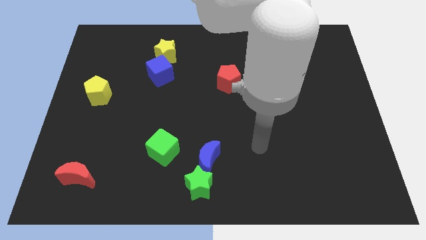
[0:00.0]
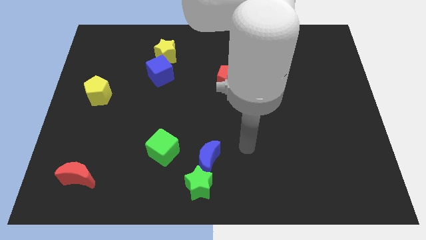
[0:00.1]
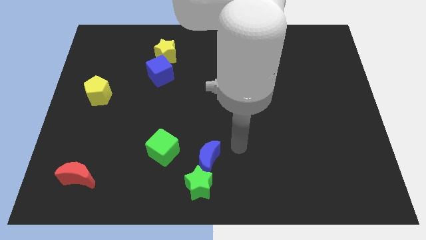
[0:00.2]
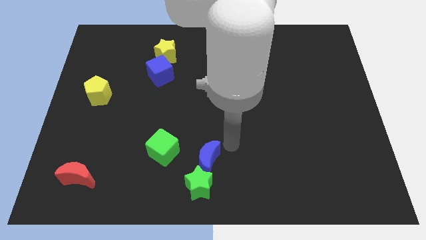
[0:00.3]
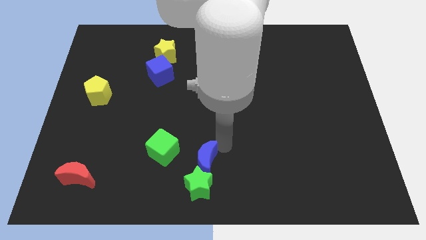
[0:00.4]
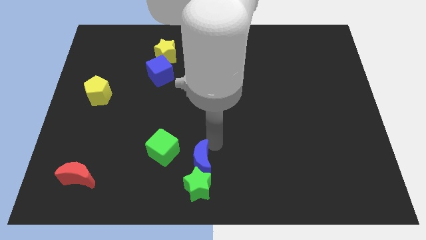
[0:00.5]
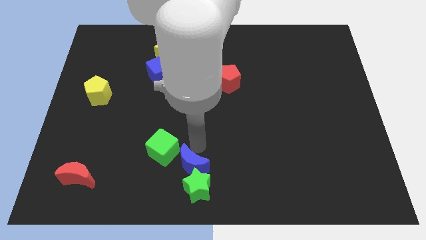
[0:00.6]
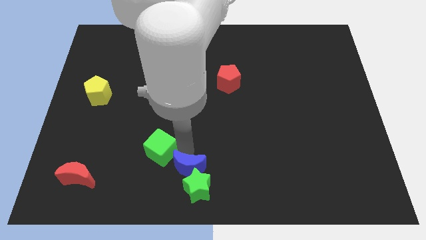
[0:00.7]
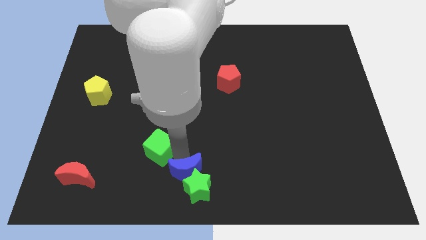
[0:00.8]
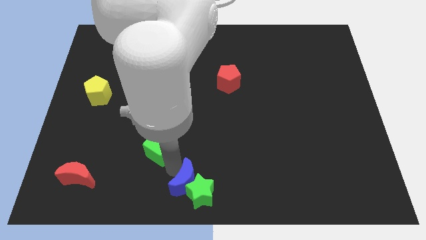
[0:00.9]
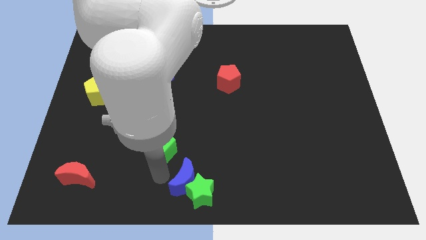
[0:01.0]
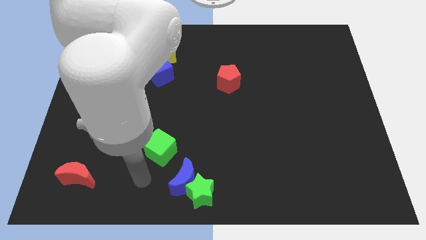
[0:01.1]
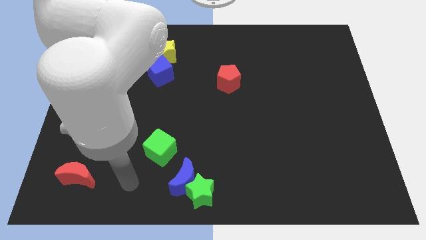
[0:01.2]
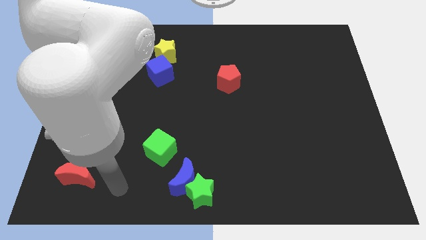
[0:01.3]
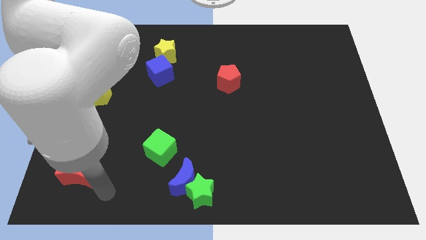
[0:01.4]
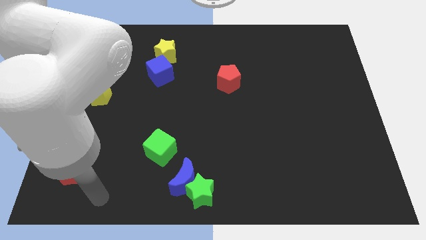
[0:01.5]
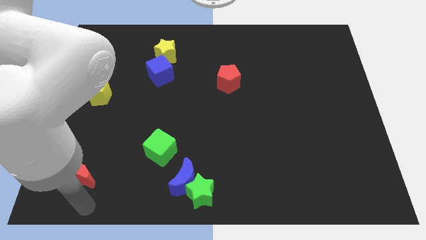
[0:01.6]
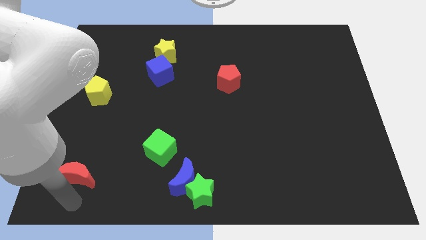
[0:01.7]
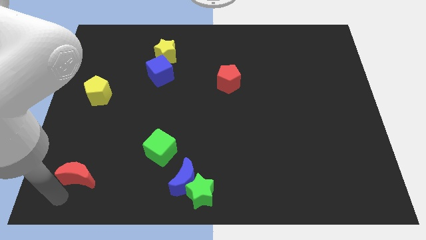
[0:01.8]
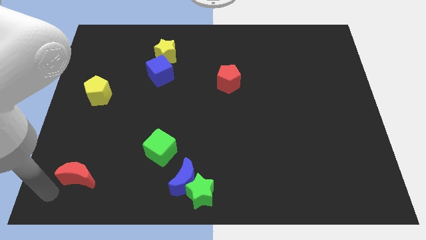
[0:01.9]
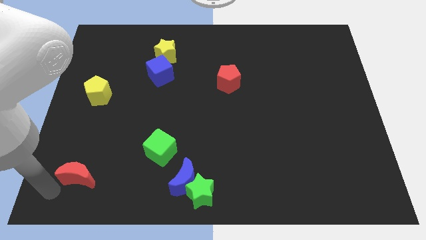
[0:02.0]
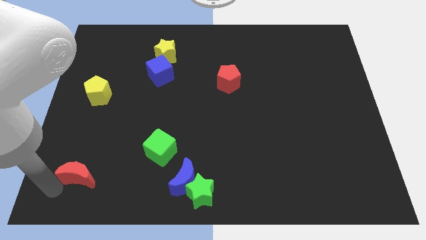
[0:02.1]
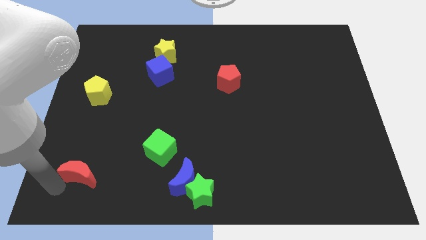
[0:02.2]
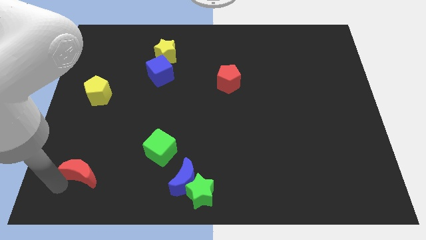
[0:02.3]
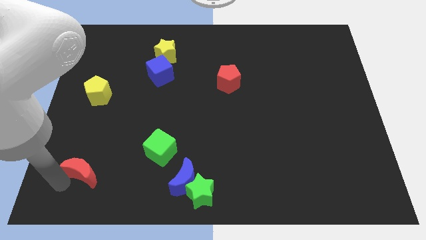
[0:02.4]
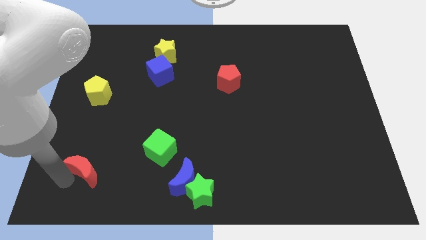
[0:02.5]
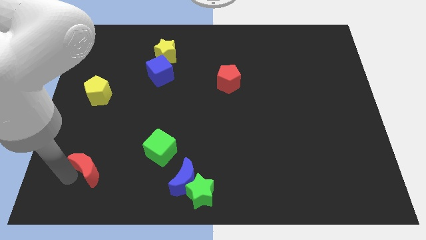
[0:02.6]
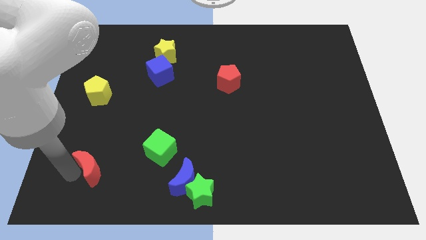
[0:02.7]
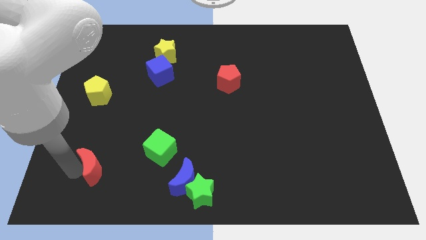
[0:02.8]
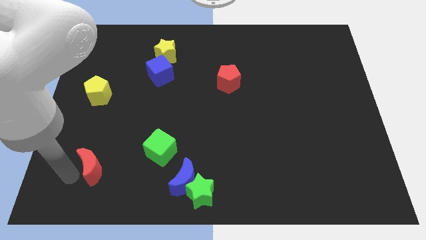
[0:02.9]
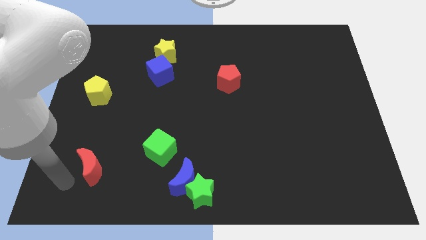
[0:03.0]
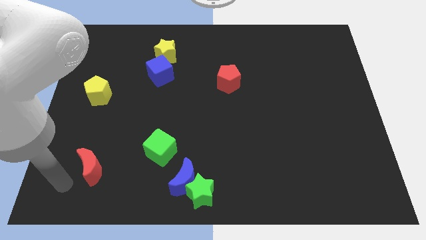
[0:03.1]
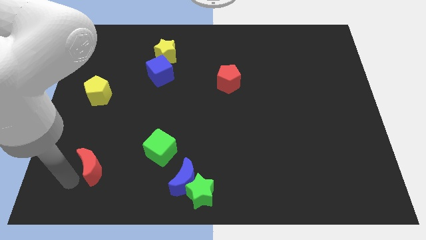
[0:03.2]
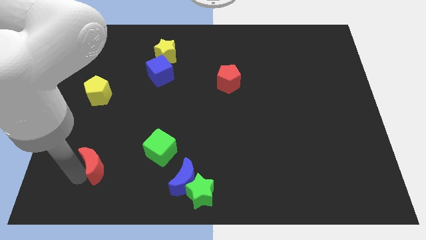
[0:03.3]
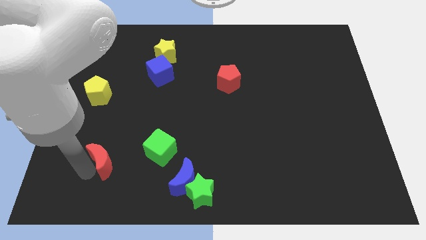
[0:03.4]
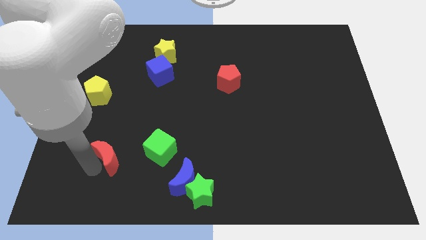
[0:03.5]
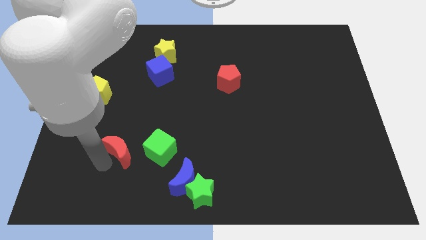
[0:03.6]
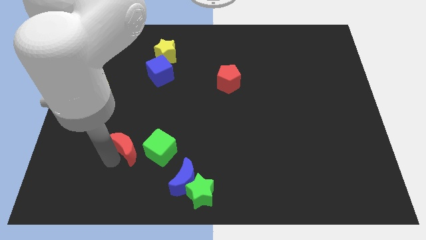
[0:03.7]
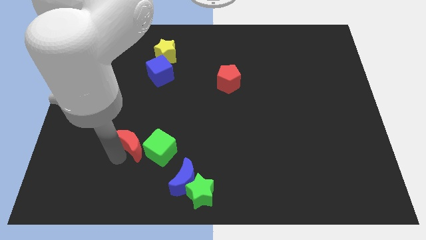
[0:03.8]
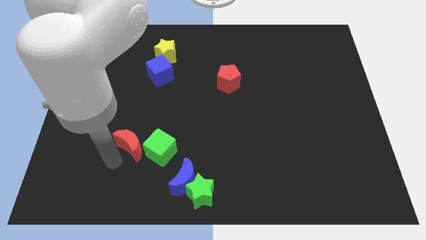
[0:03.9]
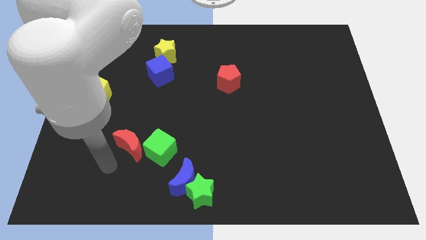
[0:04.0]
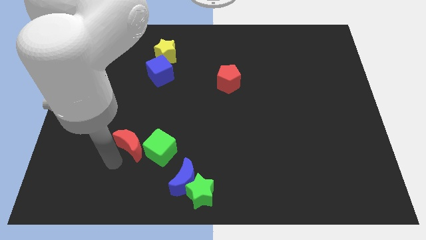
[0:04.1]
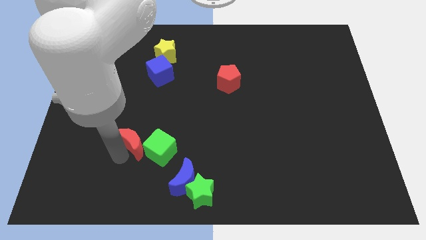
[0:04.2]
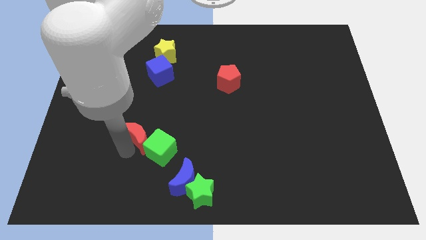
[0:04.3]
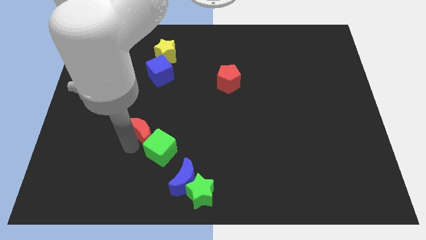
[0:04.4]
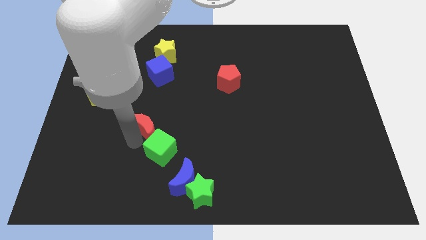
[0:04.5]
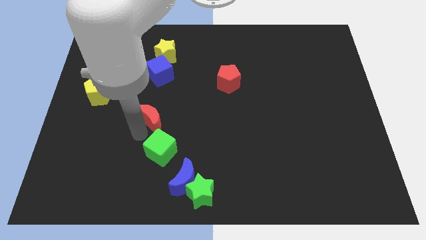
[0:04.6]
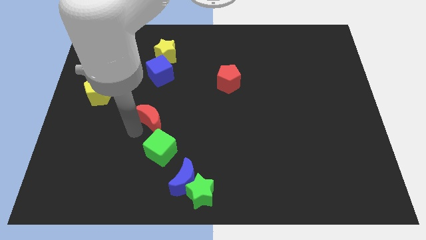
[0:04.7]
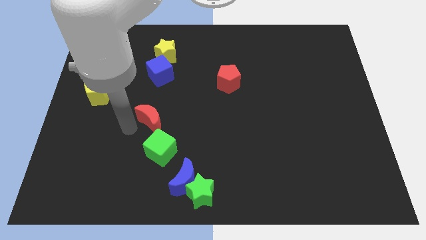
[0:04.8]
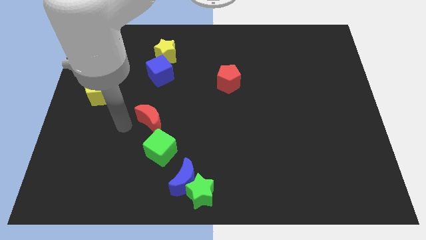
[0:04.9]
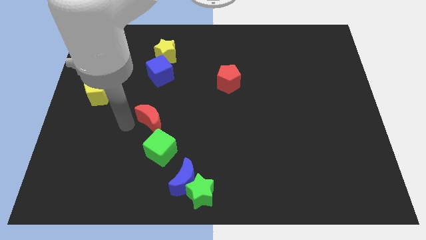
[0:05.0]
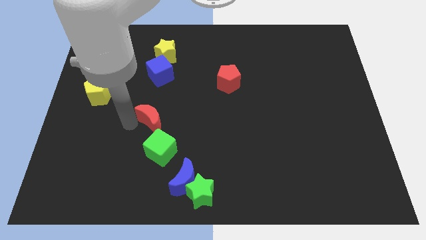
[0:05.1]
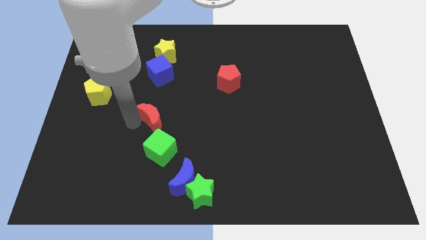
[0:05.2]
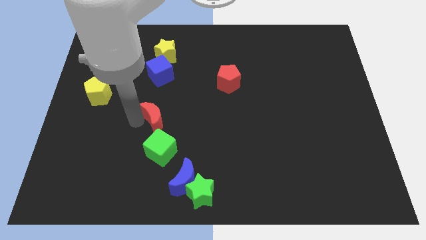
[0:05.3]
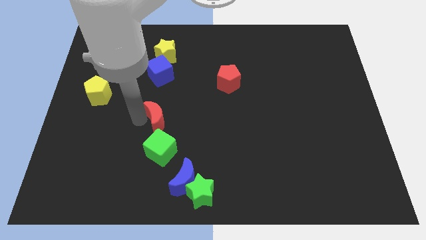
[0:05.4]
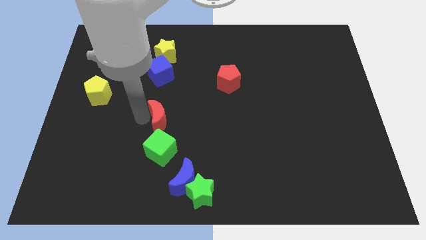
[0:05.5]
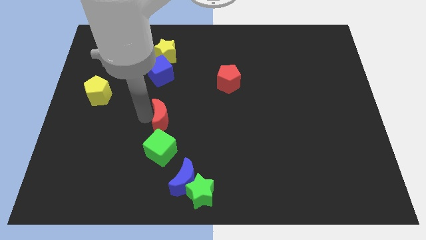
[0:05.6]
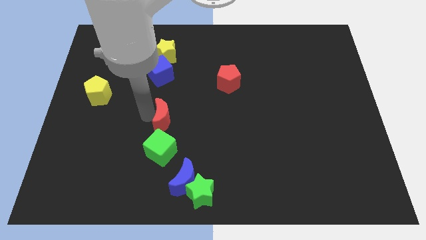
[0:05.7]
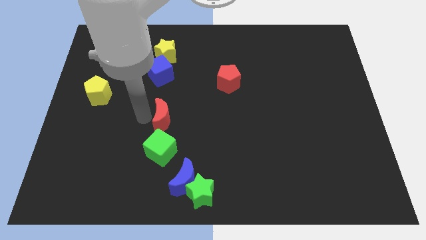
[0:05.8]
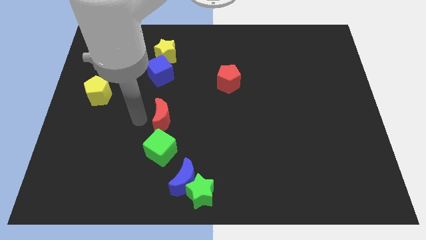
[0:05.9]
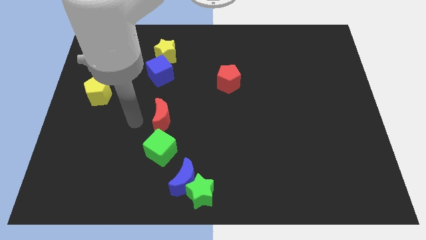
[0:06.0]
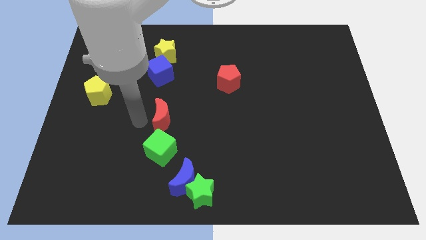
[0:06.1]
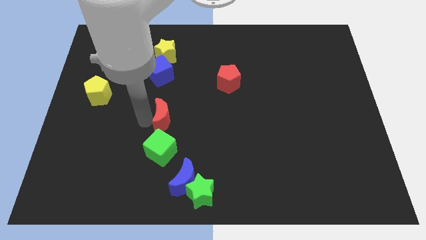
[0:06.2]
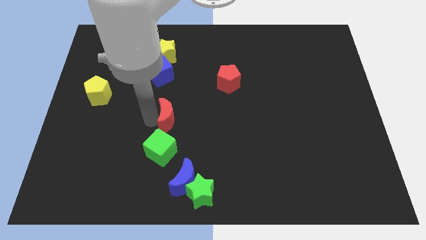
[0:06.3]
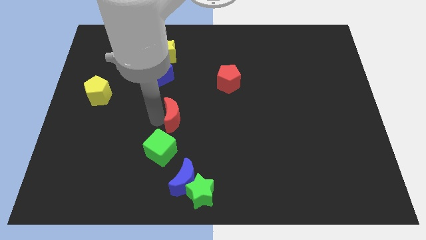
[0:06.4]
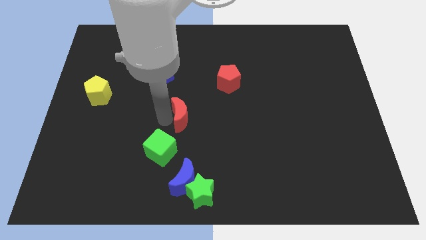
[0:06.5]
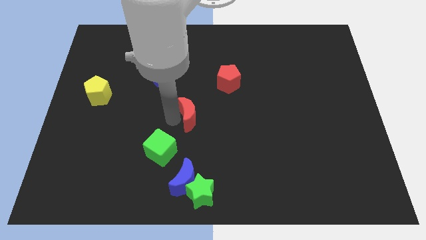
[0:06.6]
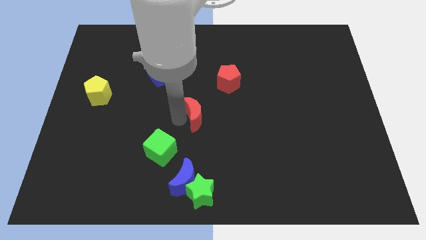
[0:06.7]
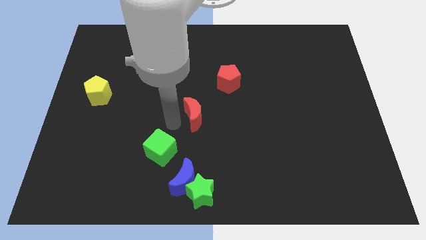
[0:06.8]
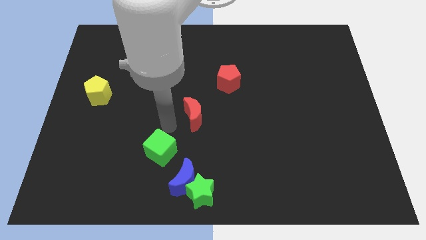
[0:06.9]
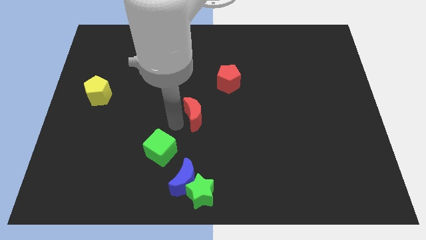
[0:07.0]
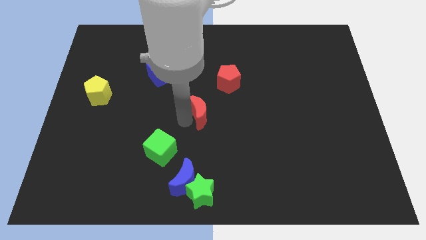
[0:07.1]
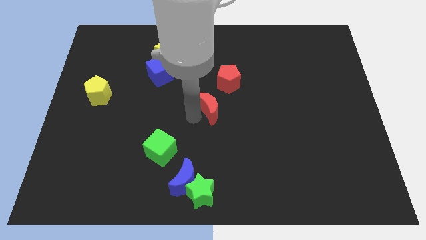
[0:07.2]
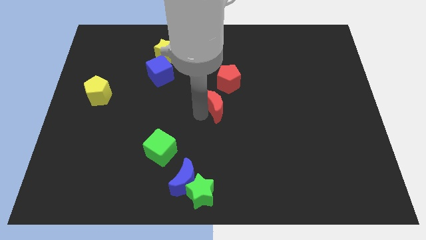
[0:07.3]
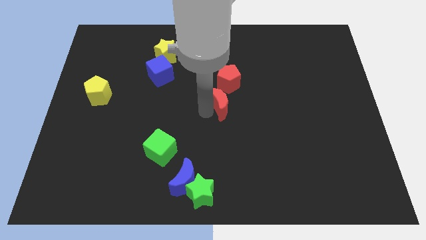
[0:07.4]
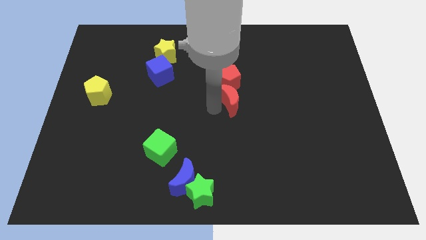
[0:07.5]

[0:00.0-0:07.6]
put the red moon to the bottom right of the red pentagon
